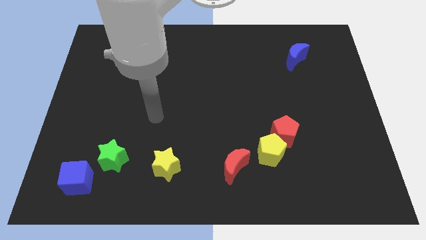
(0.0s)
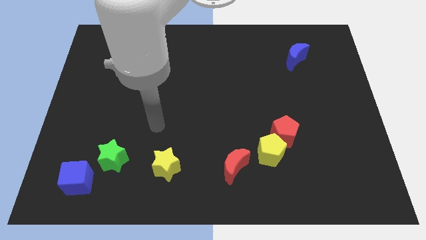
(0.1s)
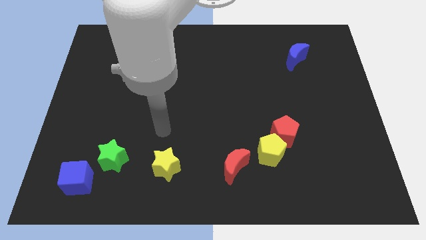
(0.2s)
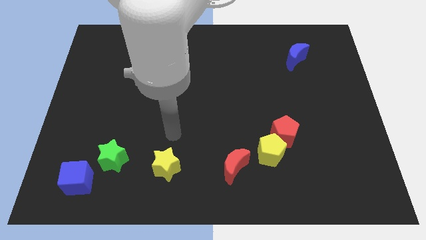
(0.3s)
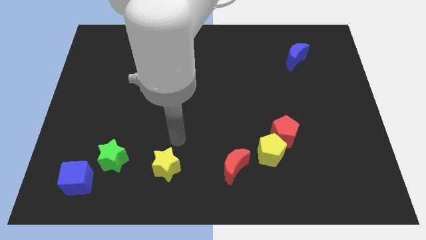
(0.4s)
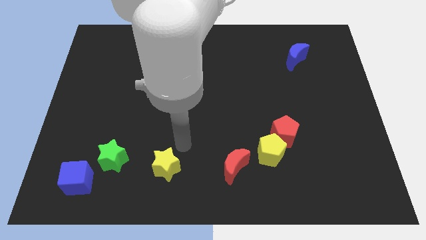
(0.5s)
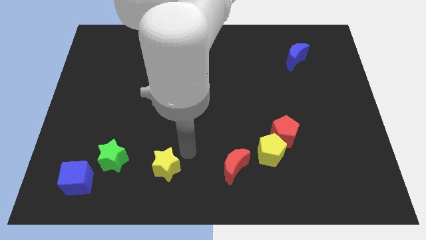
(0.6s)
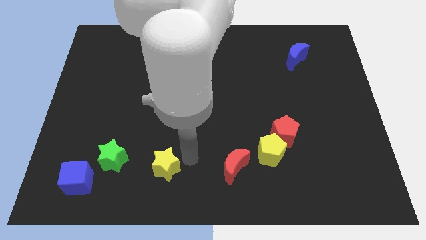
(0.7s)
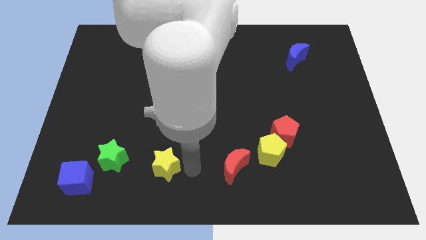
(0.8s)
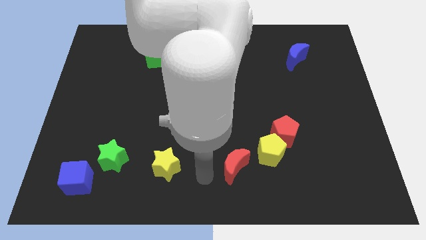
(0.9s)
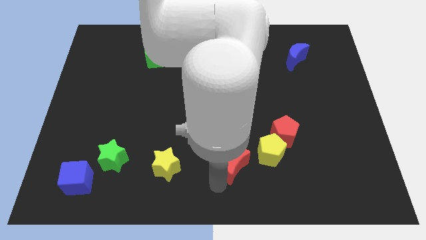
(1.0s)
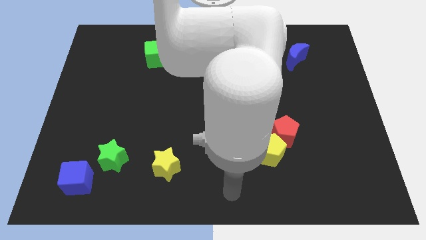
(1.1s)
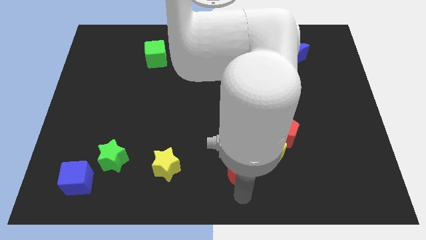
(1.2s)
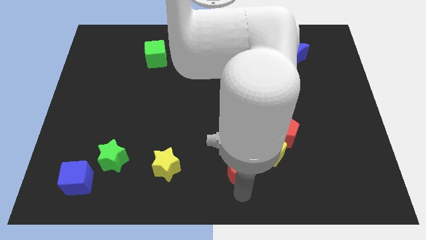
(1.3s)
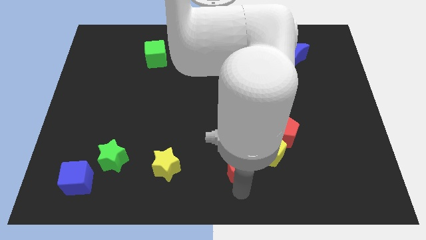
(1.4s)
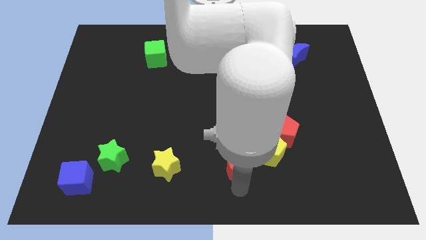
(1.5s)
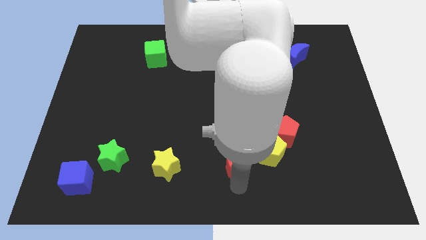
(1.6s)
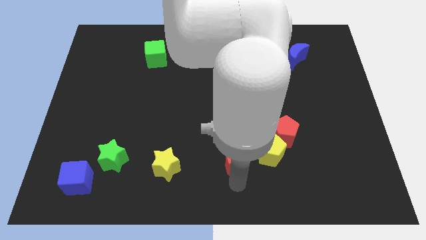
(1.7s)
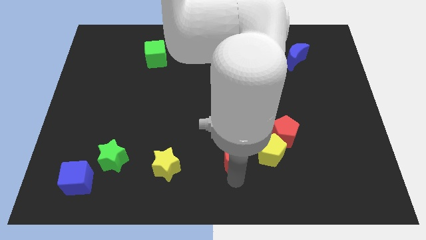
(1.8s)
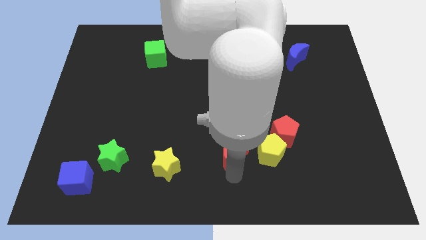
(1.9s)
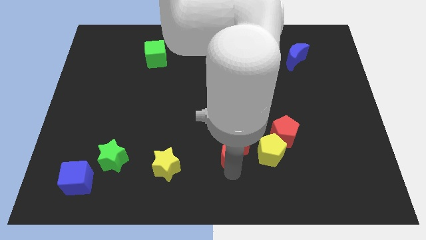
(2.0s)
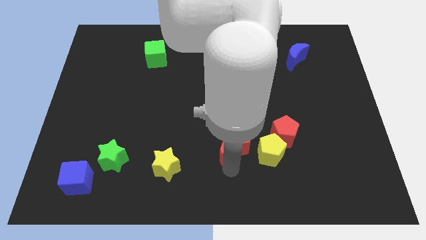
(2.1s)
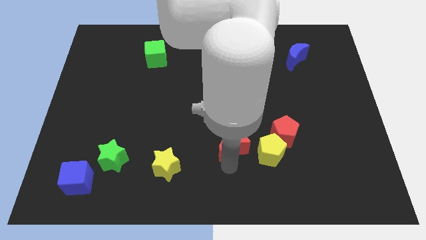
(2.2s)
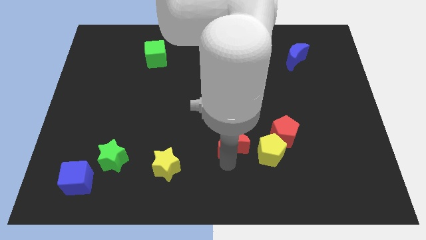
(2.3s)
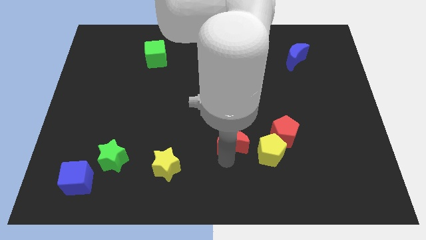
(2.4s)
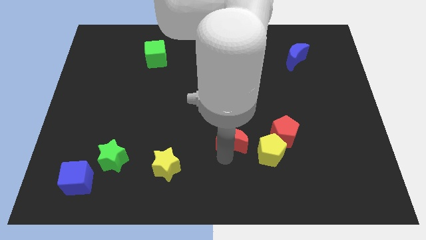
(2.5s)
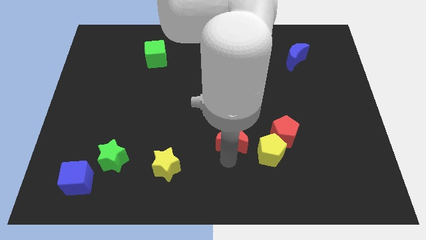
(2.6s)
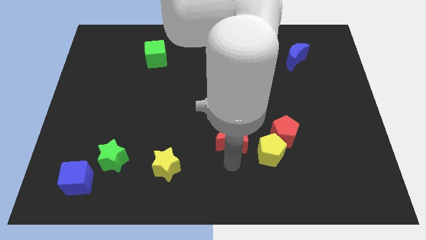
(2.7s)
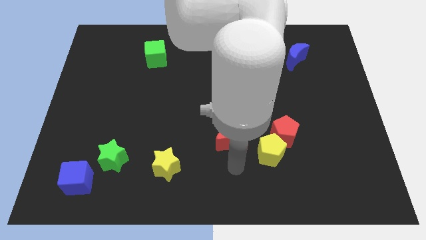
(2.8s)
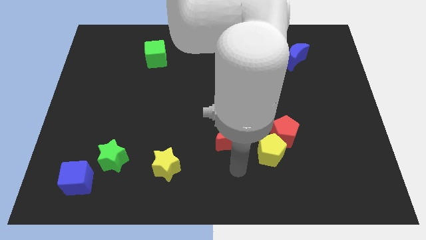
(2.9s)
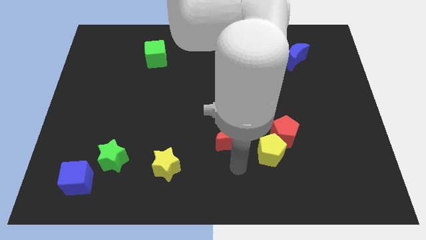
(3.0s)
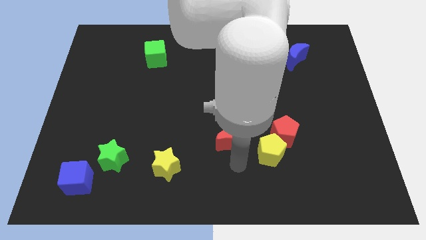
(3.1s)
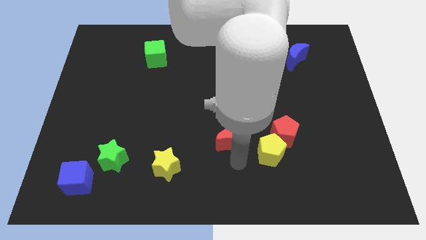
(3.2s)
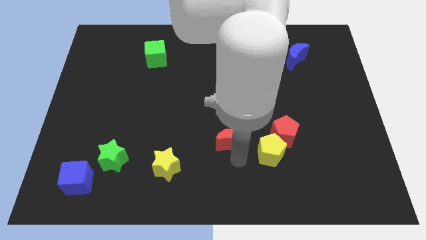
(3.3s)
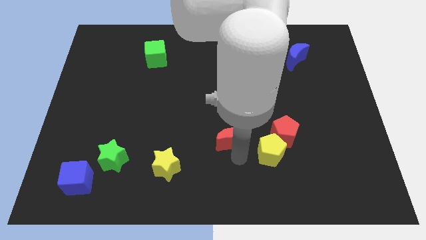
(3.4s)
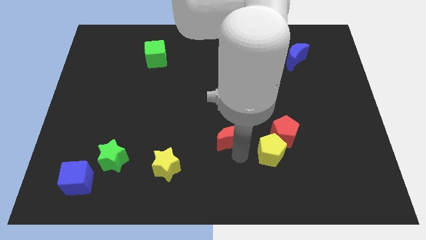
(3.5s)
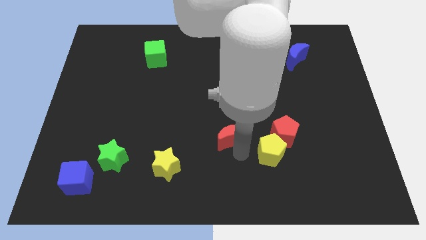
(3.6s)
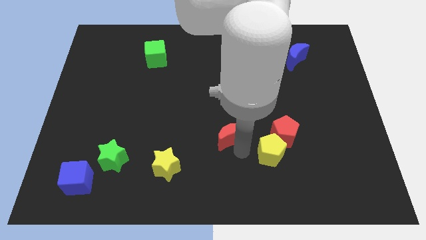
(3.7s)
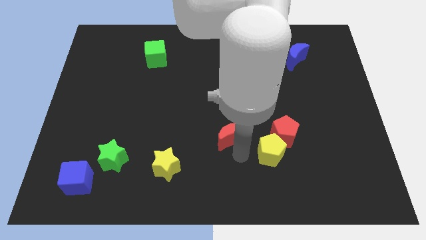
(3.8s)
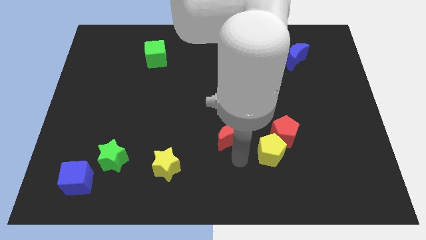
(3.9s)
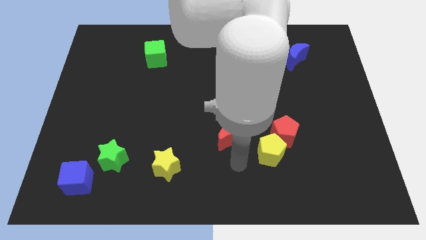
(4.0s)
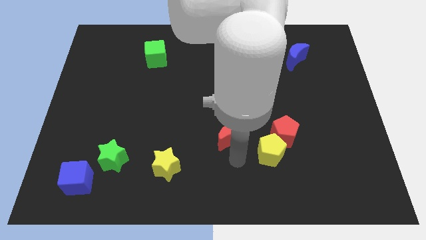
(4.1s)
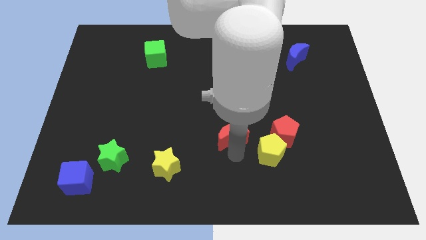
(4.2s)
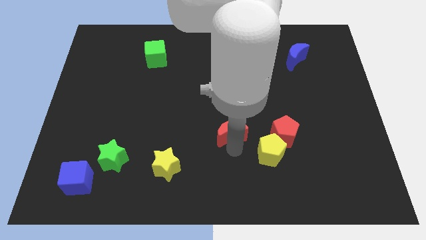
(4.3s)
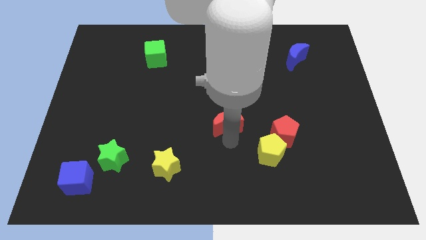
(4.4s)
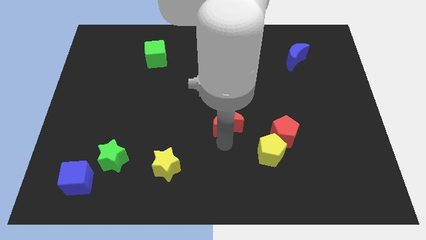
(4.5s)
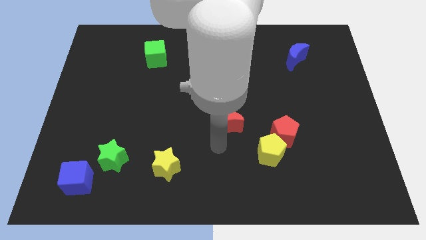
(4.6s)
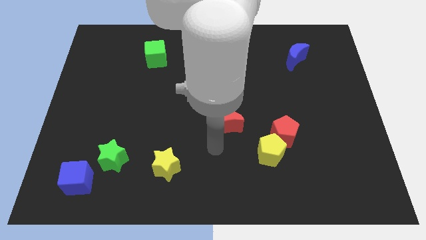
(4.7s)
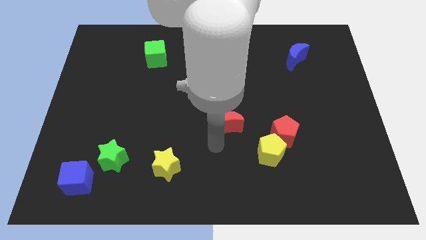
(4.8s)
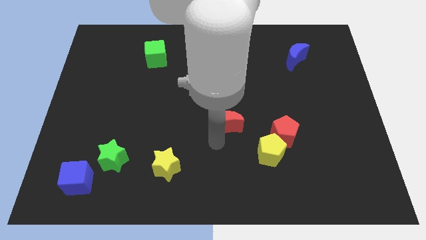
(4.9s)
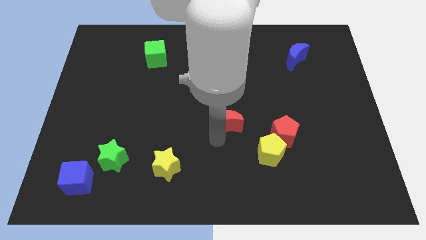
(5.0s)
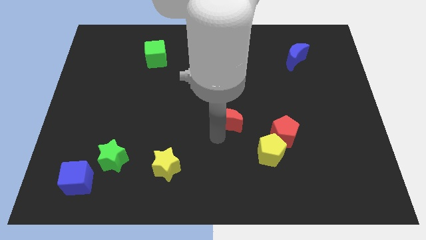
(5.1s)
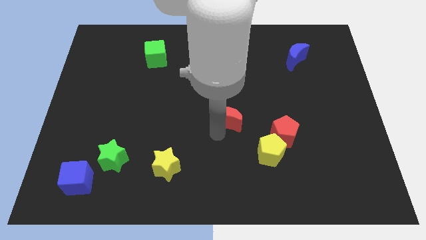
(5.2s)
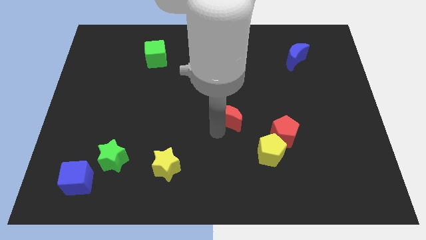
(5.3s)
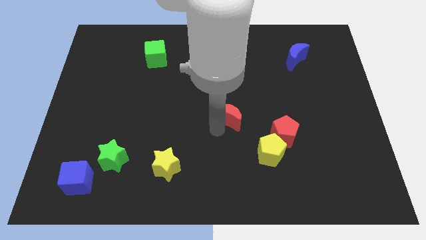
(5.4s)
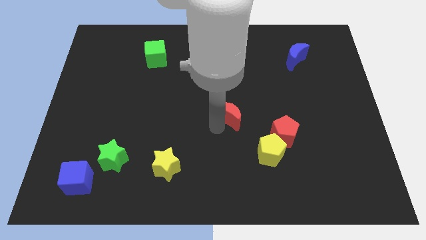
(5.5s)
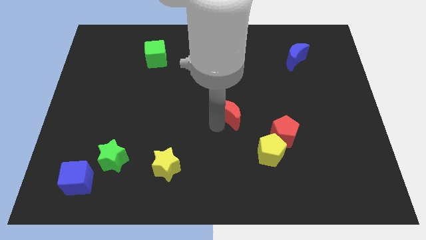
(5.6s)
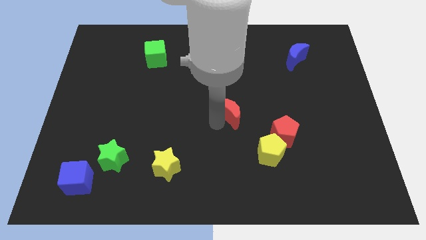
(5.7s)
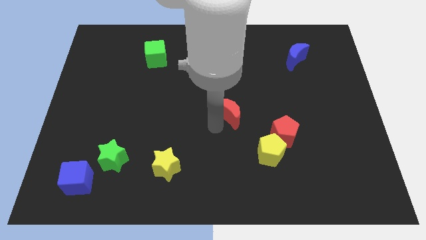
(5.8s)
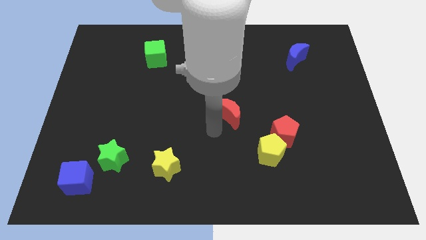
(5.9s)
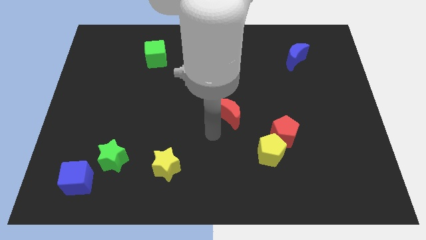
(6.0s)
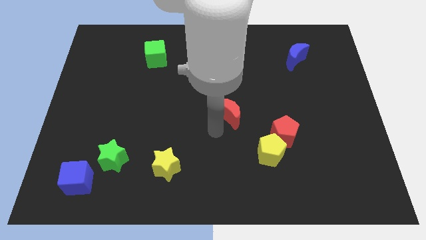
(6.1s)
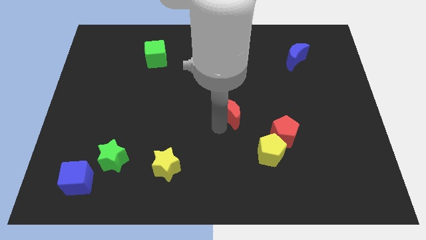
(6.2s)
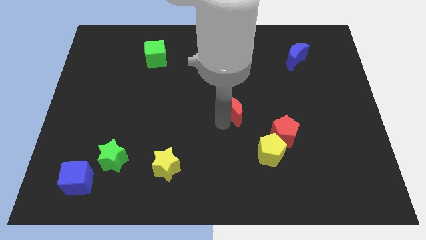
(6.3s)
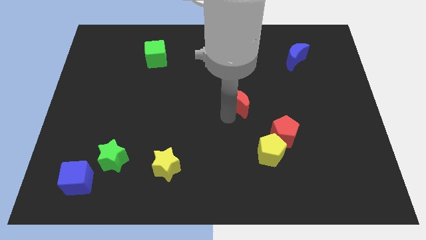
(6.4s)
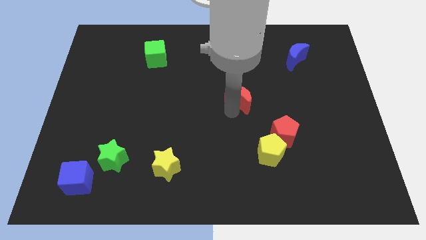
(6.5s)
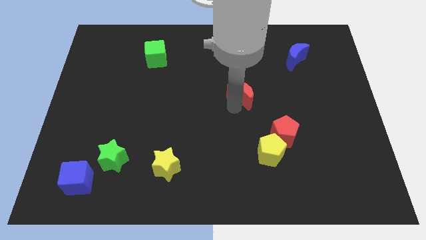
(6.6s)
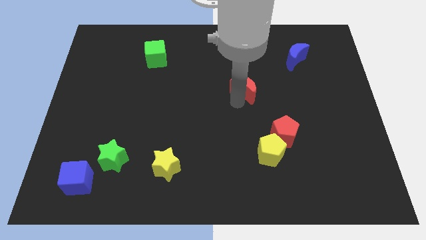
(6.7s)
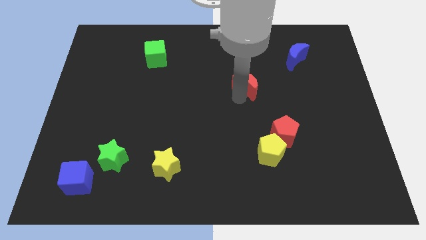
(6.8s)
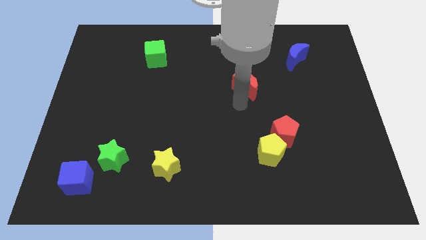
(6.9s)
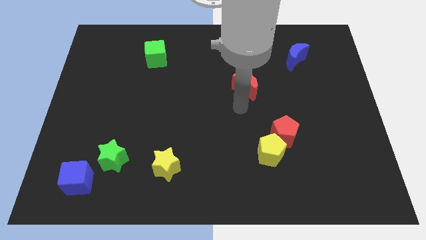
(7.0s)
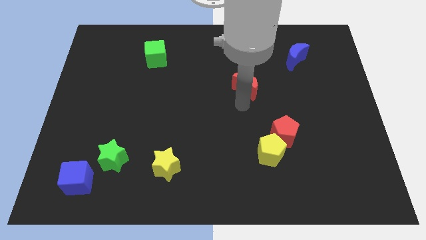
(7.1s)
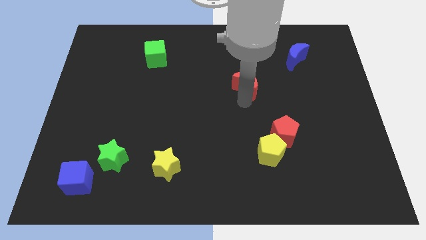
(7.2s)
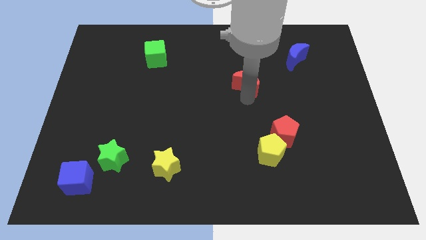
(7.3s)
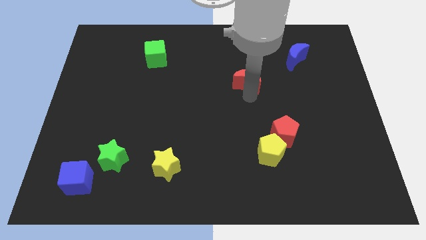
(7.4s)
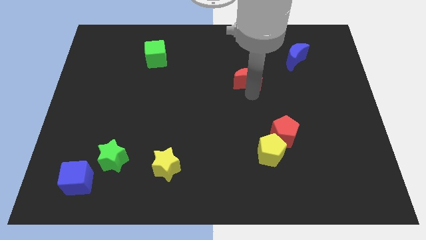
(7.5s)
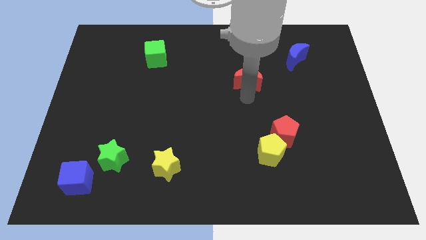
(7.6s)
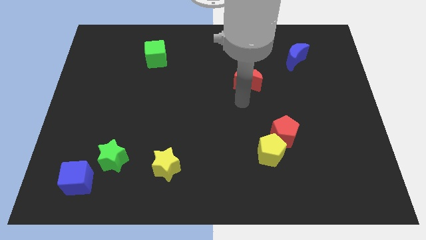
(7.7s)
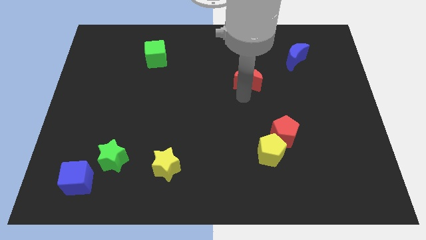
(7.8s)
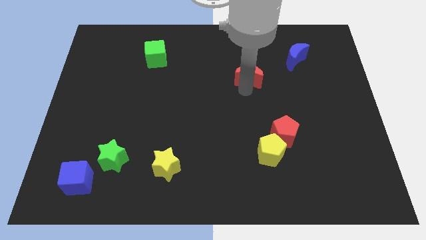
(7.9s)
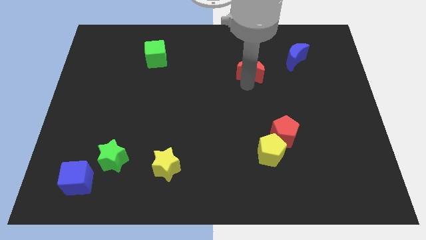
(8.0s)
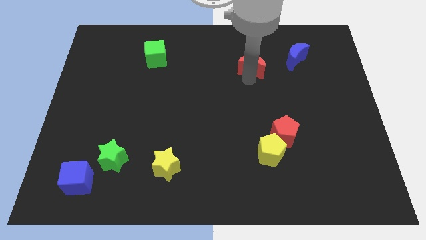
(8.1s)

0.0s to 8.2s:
slide the red moon to the left of the blue moon
